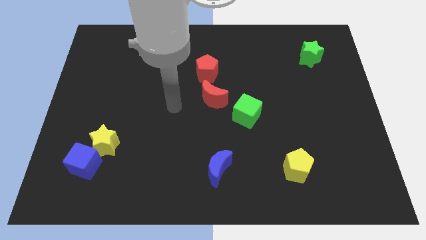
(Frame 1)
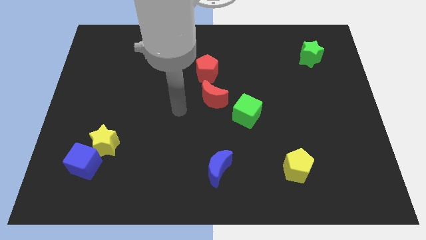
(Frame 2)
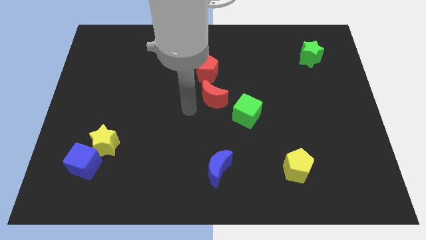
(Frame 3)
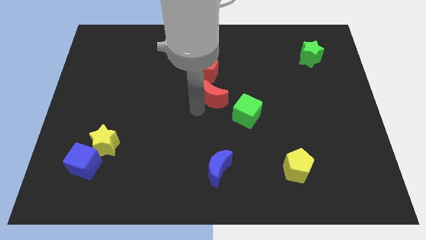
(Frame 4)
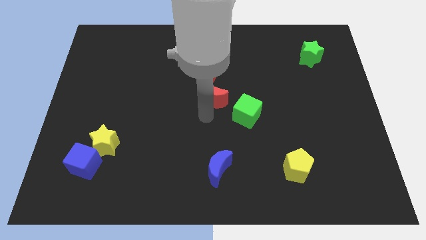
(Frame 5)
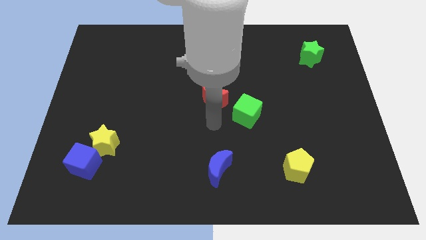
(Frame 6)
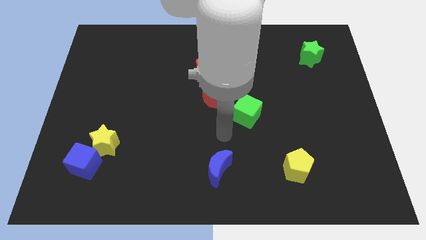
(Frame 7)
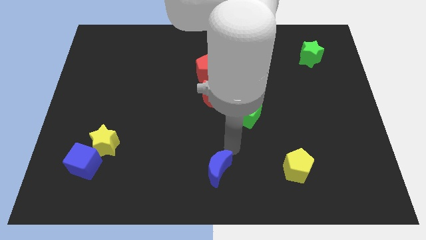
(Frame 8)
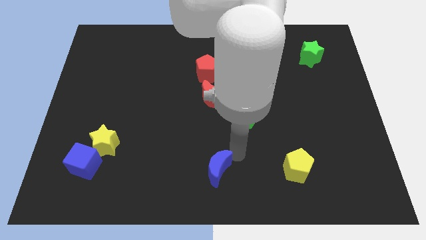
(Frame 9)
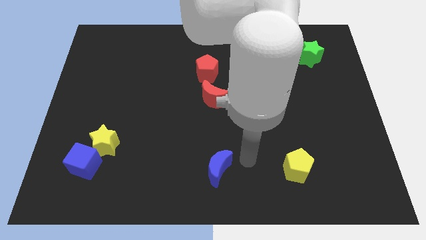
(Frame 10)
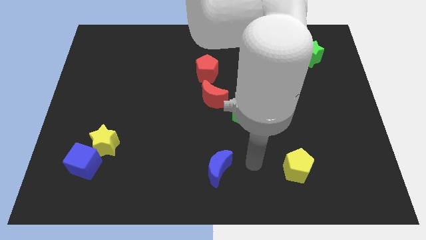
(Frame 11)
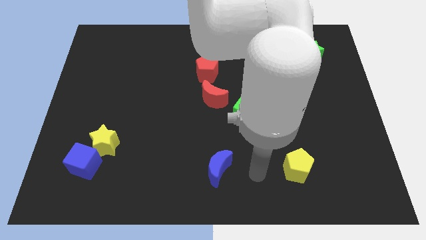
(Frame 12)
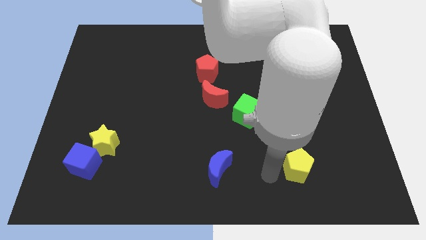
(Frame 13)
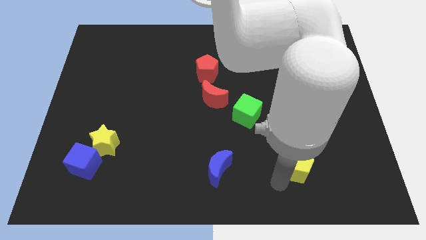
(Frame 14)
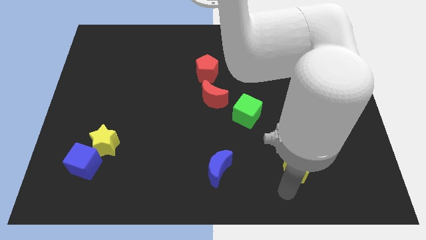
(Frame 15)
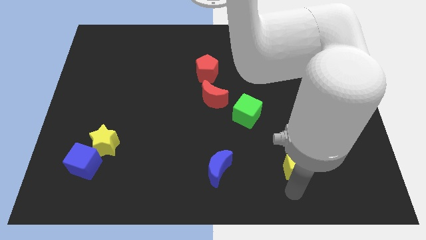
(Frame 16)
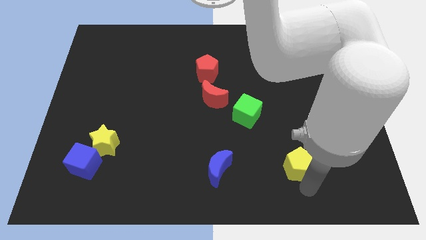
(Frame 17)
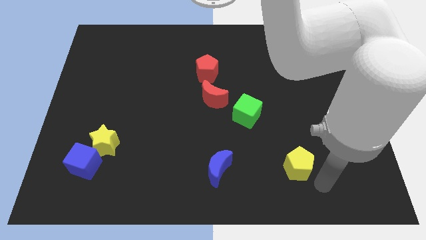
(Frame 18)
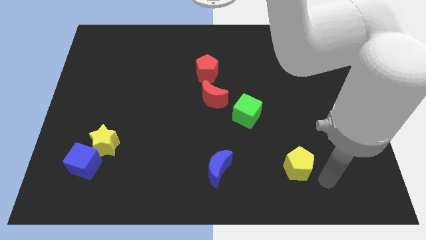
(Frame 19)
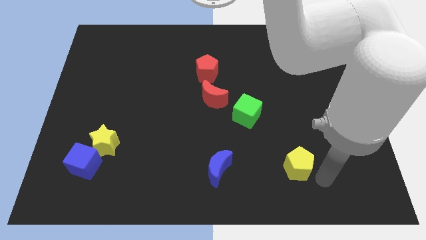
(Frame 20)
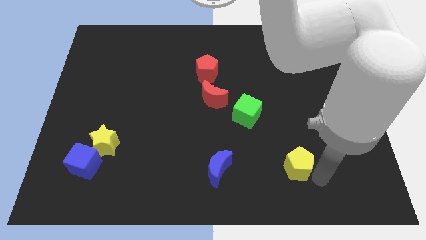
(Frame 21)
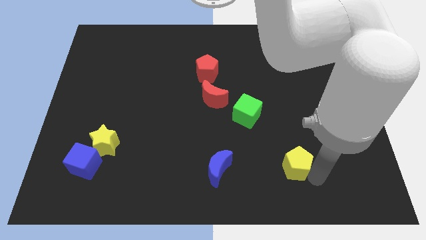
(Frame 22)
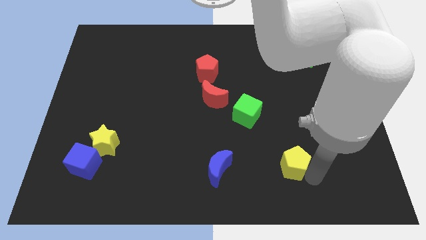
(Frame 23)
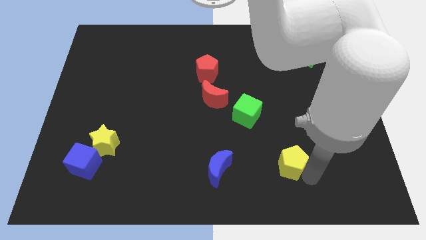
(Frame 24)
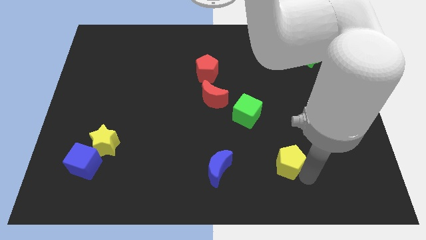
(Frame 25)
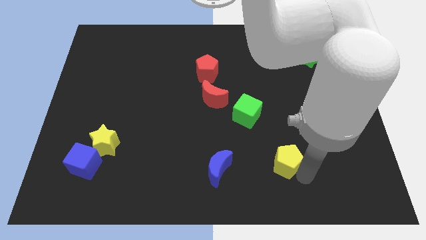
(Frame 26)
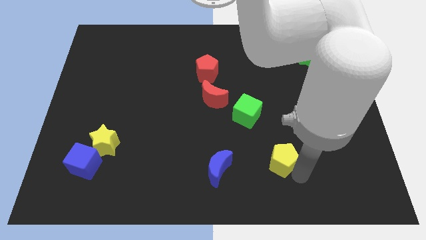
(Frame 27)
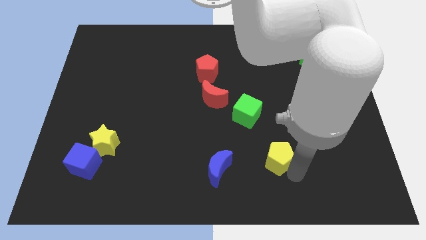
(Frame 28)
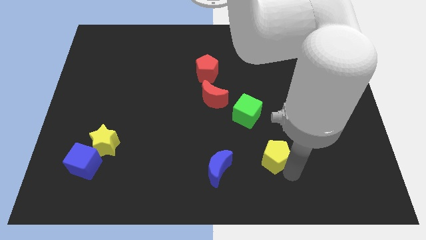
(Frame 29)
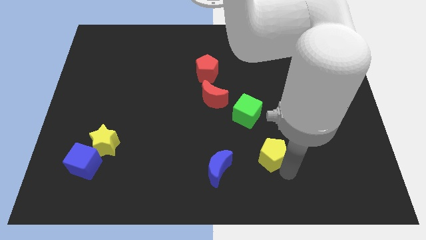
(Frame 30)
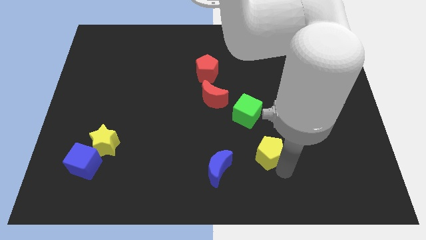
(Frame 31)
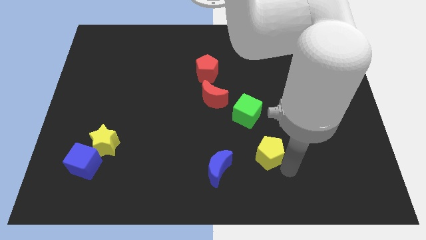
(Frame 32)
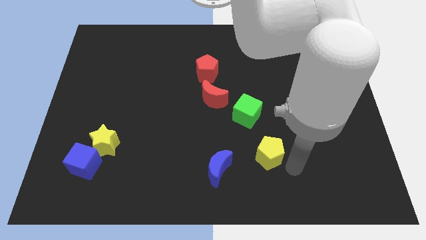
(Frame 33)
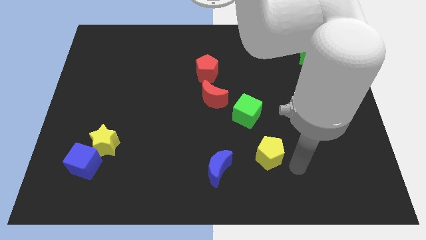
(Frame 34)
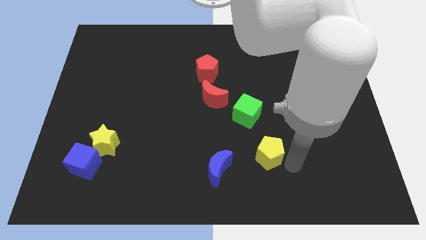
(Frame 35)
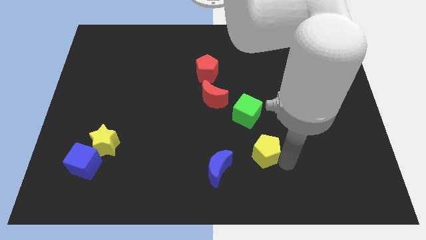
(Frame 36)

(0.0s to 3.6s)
slightly move the yellow pentagon upwards and then to the left

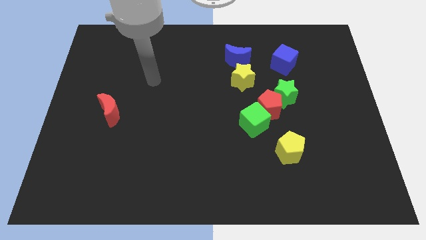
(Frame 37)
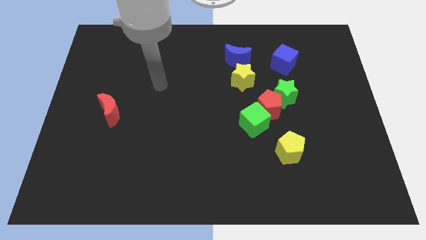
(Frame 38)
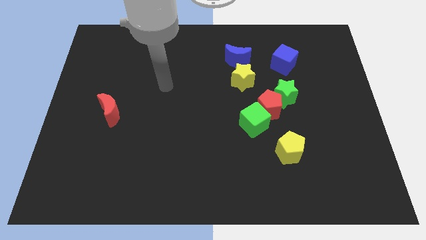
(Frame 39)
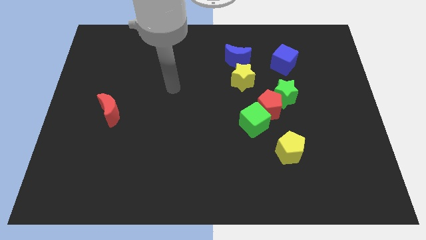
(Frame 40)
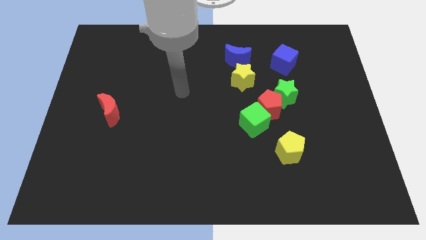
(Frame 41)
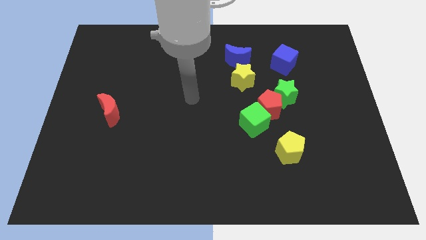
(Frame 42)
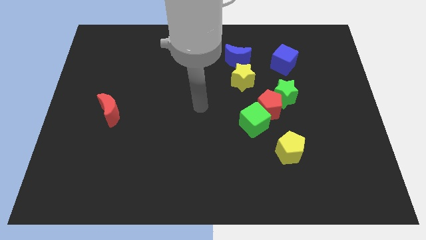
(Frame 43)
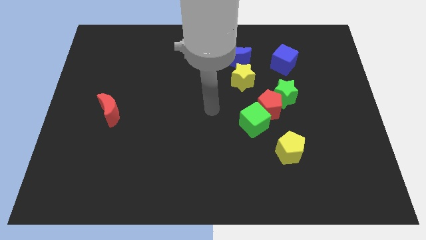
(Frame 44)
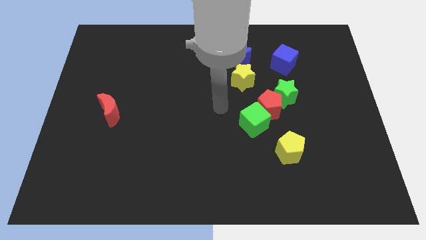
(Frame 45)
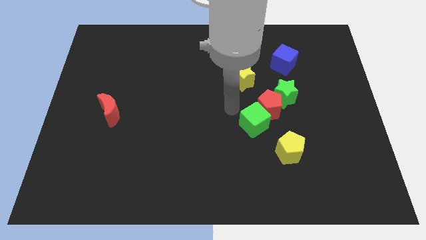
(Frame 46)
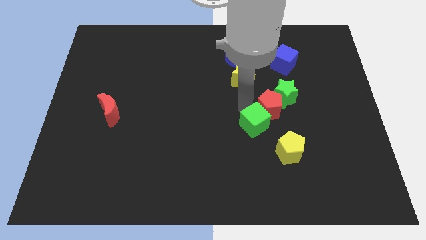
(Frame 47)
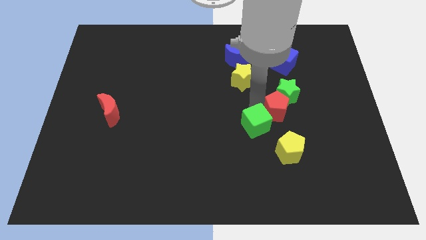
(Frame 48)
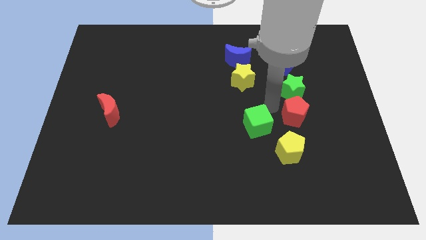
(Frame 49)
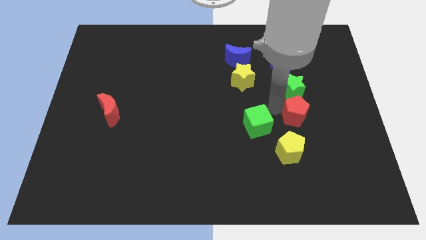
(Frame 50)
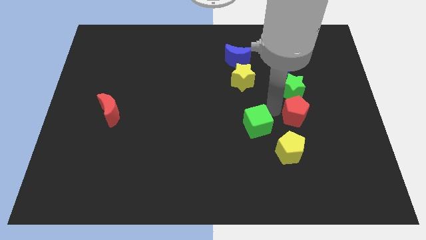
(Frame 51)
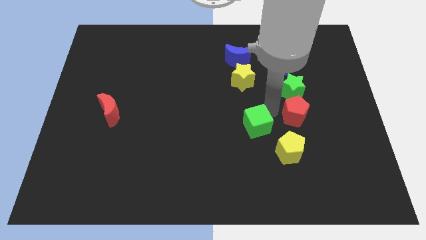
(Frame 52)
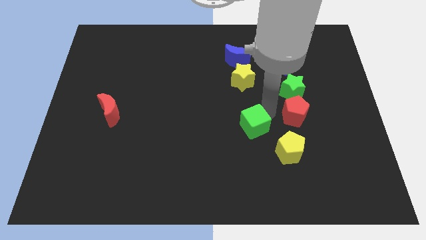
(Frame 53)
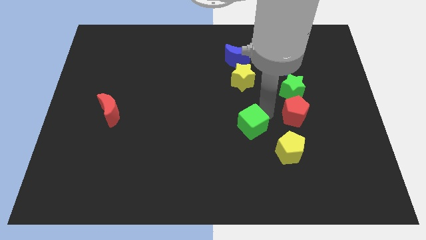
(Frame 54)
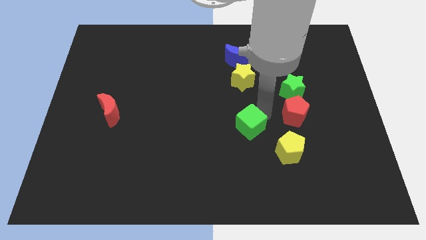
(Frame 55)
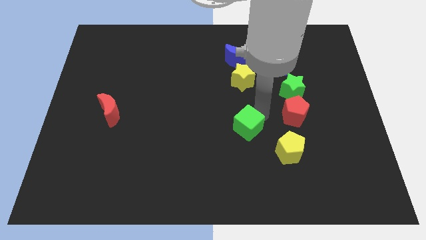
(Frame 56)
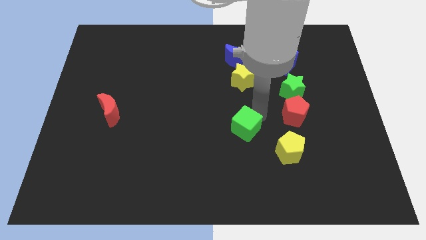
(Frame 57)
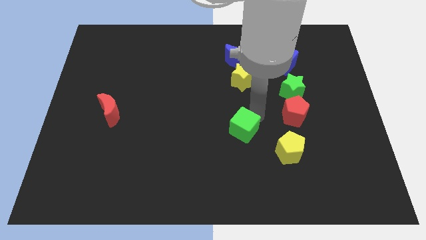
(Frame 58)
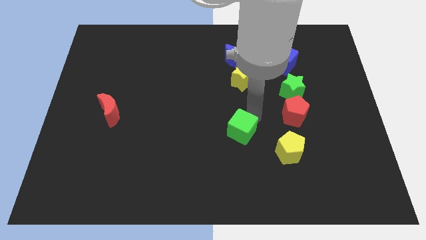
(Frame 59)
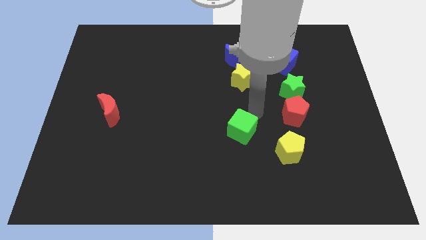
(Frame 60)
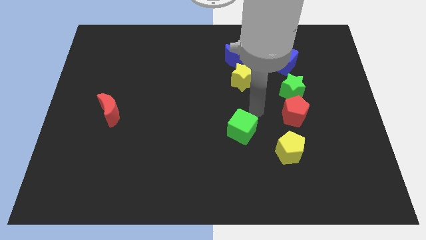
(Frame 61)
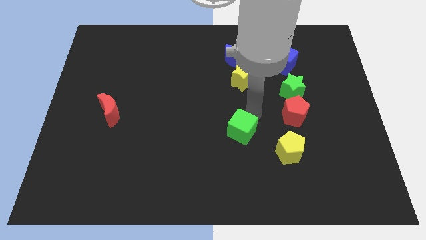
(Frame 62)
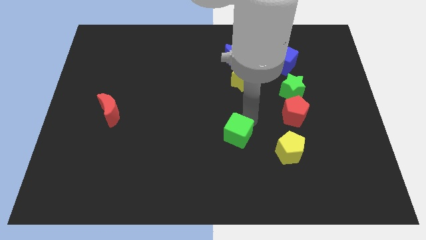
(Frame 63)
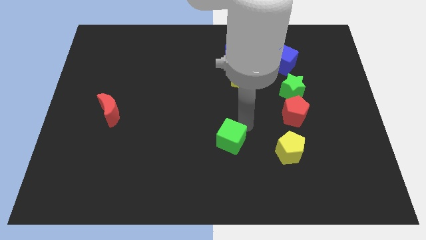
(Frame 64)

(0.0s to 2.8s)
slide the green cube somewhat down and left

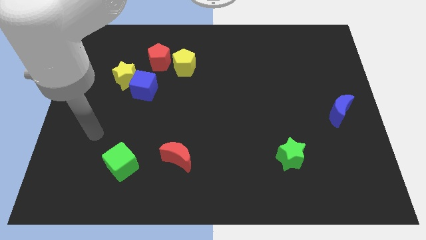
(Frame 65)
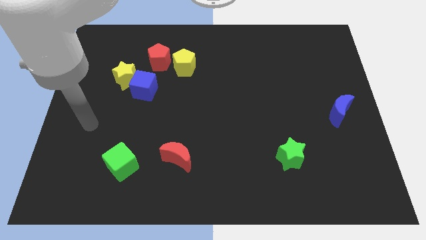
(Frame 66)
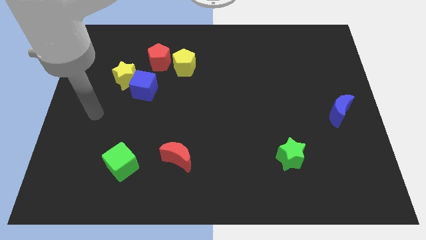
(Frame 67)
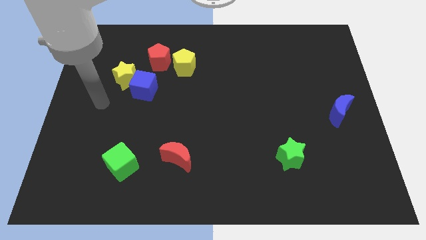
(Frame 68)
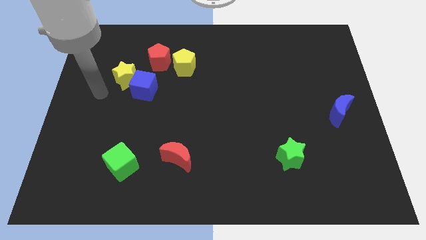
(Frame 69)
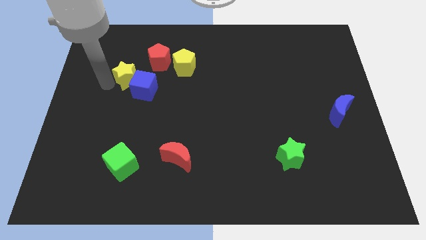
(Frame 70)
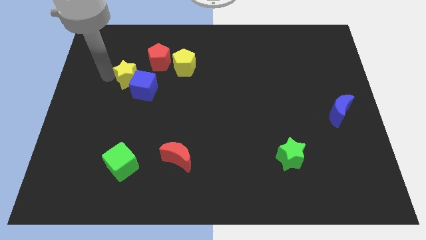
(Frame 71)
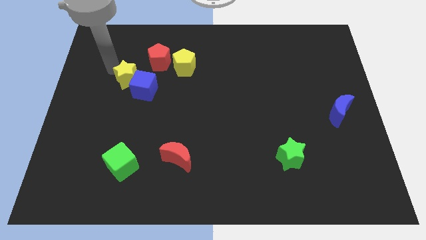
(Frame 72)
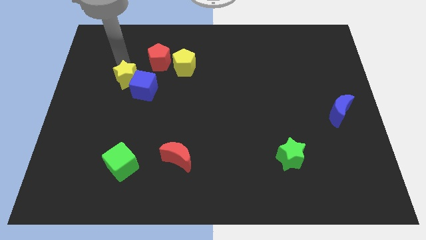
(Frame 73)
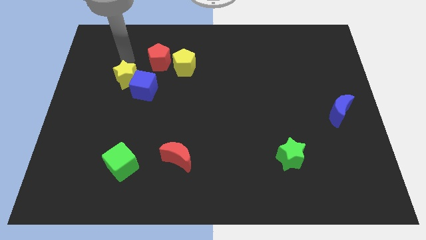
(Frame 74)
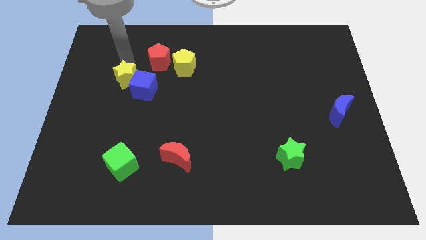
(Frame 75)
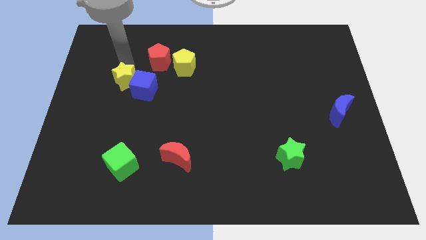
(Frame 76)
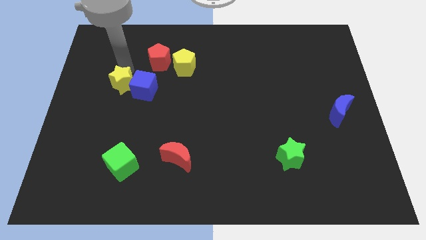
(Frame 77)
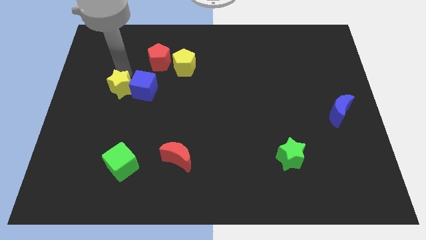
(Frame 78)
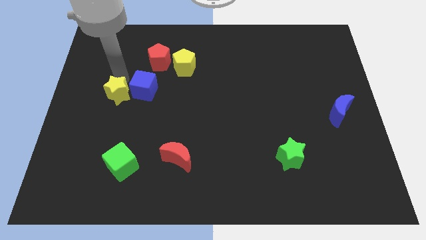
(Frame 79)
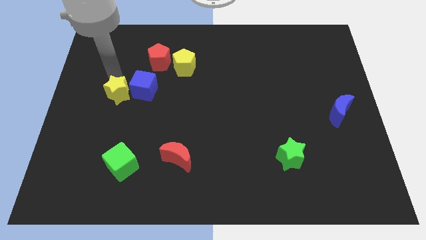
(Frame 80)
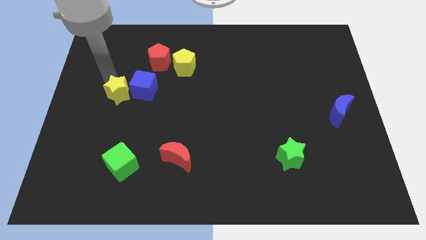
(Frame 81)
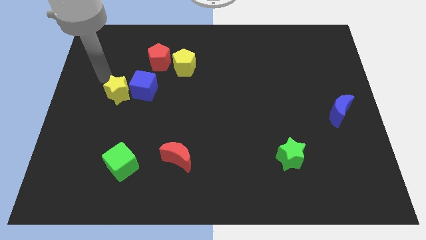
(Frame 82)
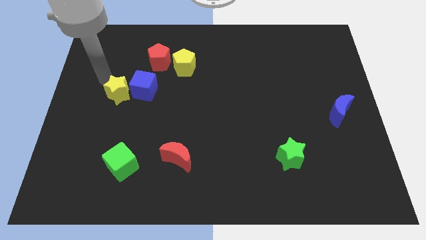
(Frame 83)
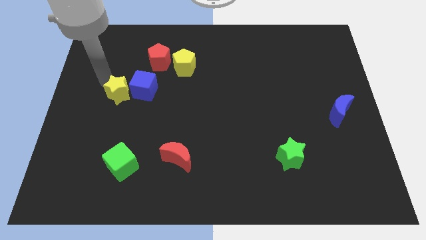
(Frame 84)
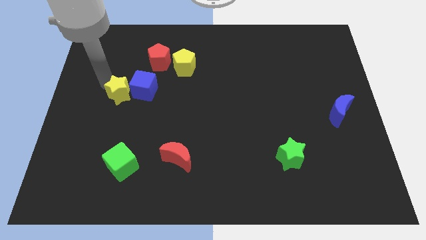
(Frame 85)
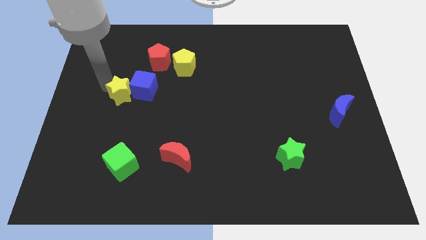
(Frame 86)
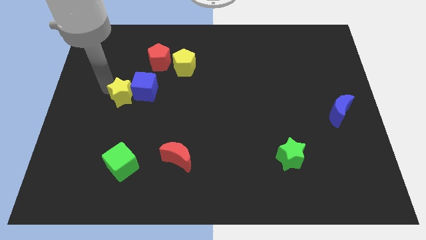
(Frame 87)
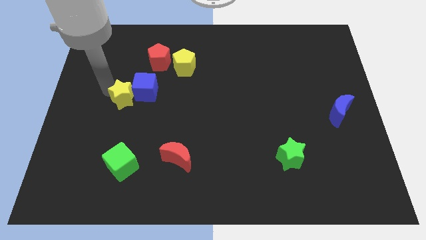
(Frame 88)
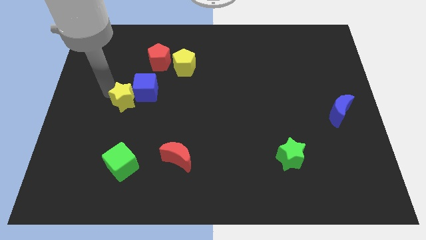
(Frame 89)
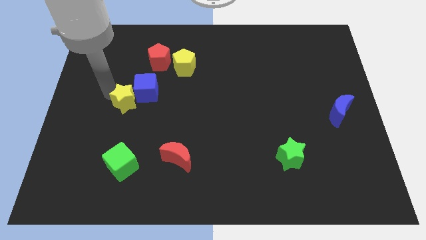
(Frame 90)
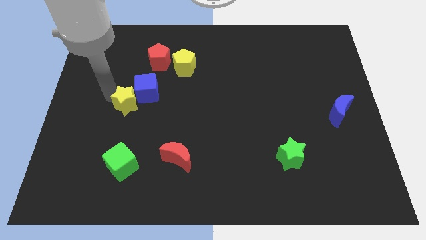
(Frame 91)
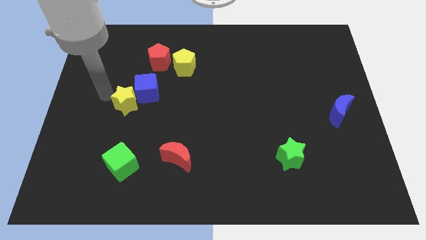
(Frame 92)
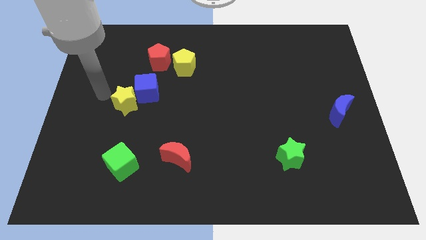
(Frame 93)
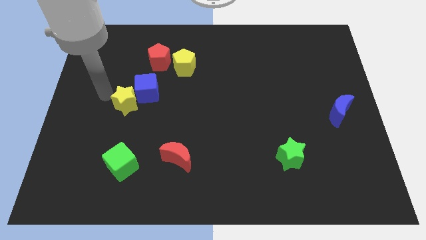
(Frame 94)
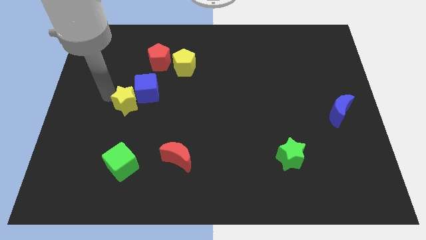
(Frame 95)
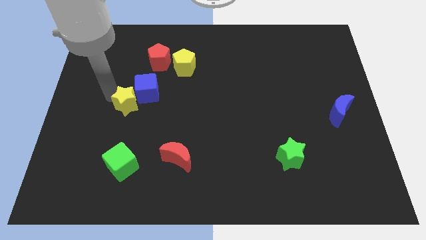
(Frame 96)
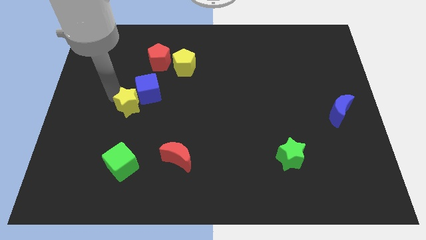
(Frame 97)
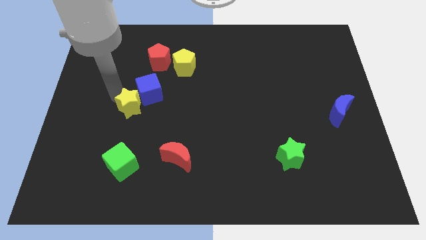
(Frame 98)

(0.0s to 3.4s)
slightly slide the yellow star diagonally down and right
